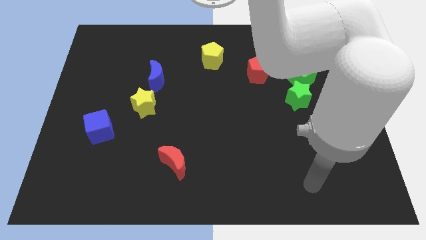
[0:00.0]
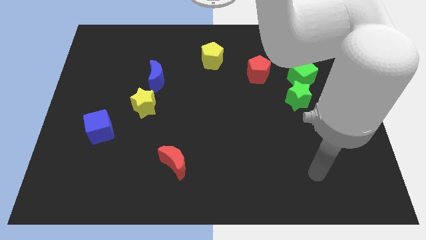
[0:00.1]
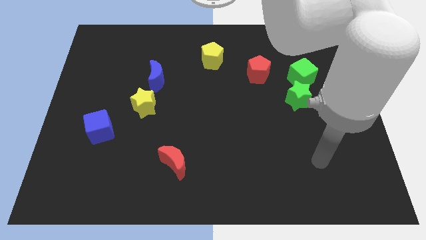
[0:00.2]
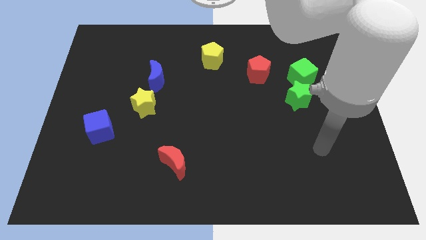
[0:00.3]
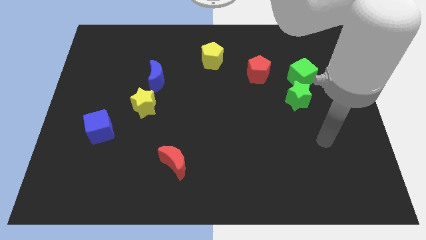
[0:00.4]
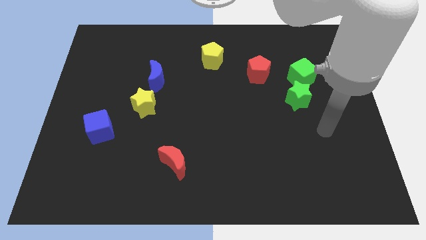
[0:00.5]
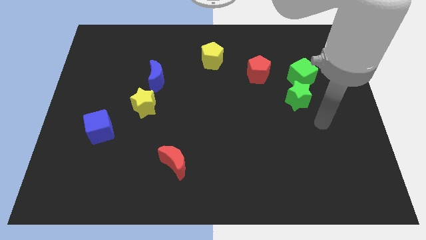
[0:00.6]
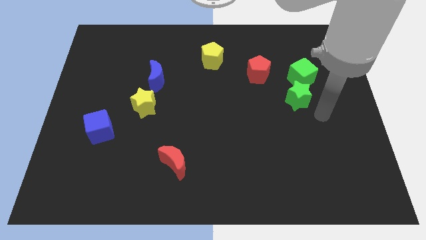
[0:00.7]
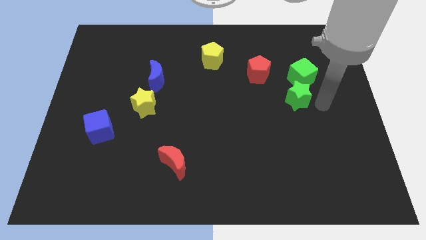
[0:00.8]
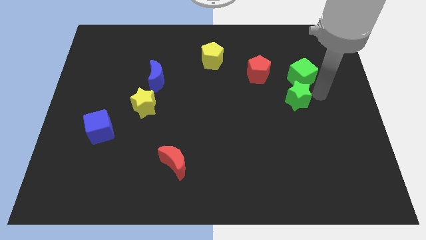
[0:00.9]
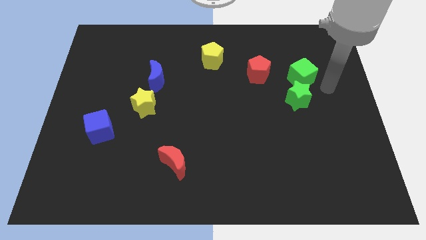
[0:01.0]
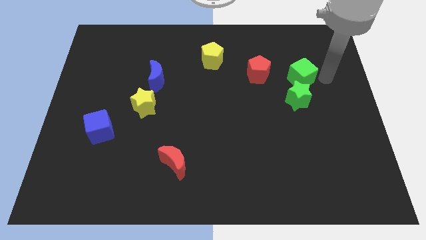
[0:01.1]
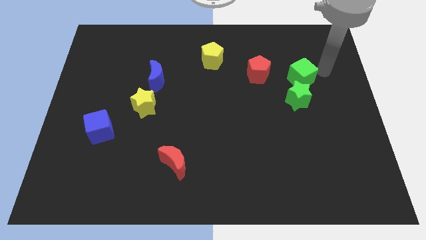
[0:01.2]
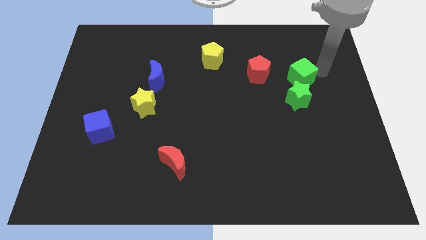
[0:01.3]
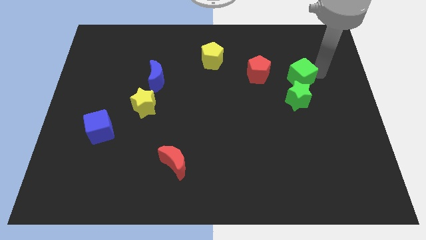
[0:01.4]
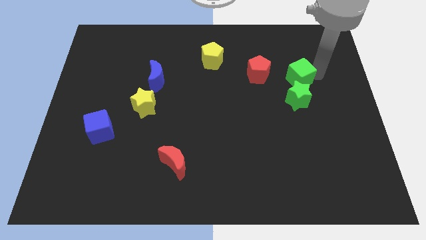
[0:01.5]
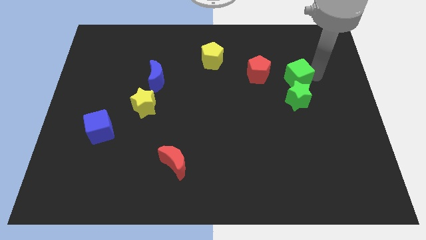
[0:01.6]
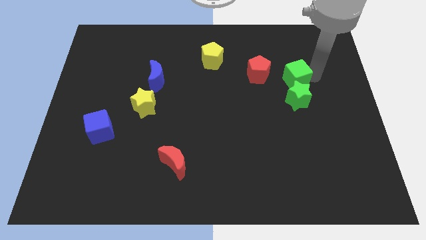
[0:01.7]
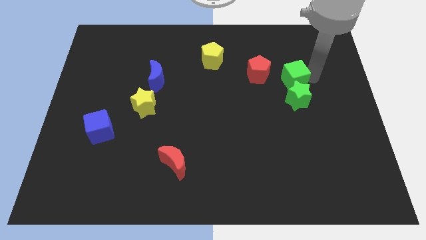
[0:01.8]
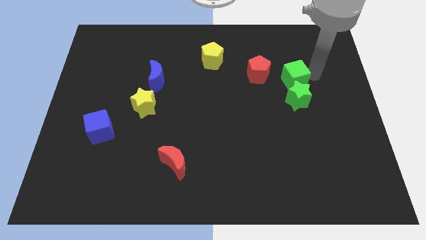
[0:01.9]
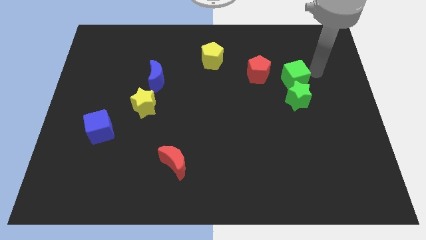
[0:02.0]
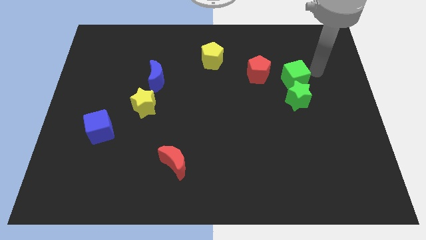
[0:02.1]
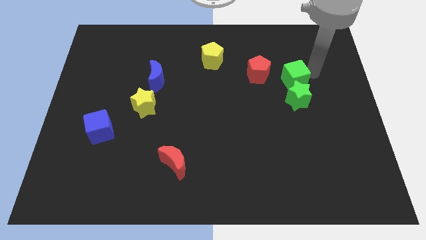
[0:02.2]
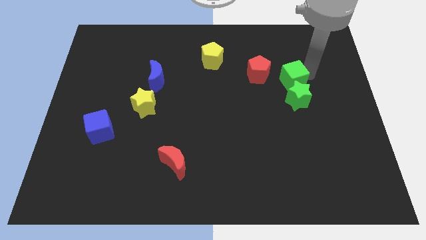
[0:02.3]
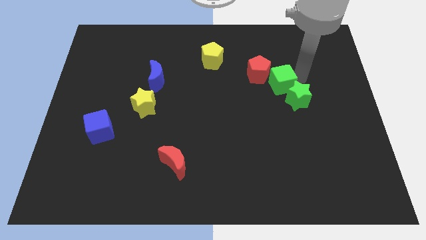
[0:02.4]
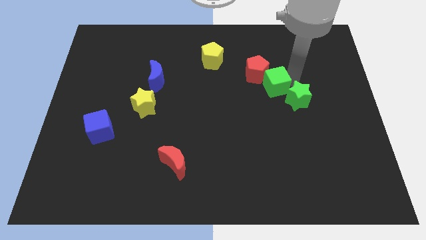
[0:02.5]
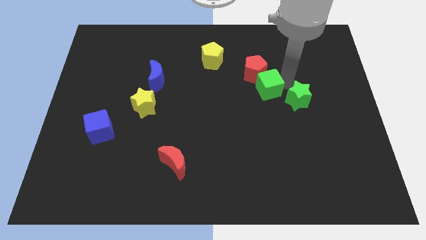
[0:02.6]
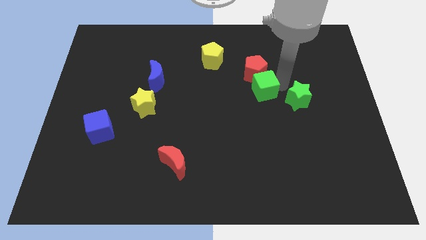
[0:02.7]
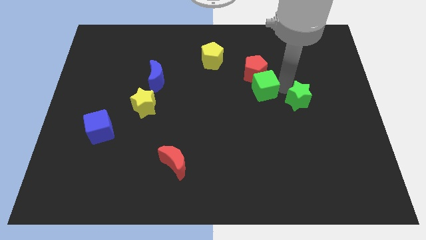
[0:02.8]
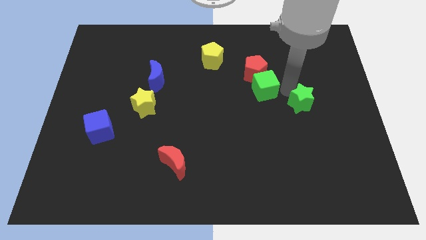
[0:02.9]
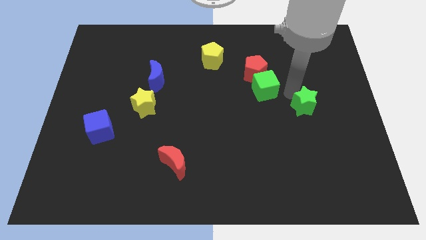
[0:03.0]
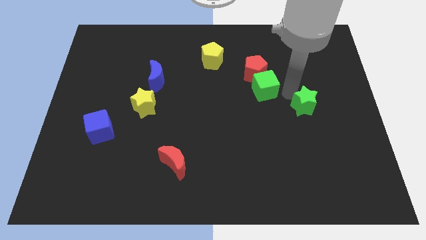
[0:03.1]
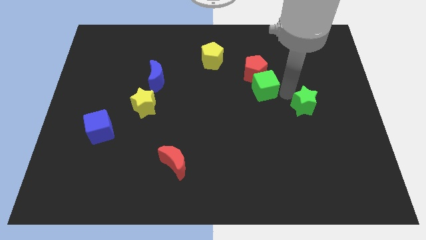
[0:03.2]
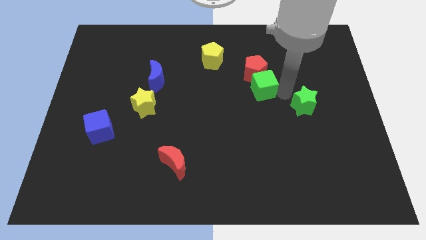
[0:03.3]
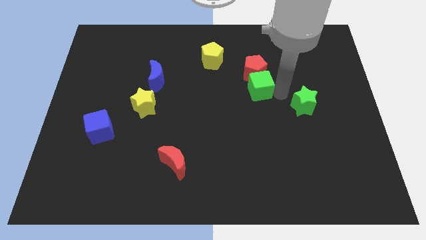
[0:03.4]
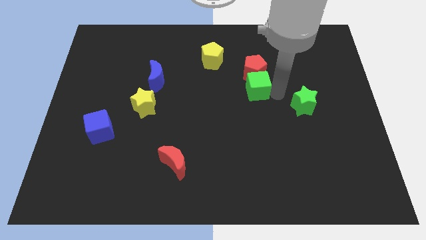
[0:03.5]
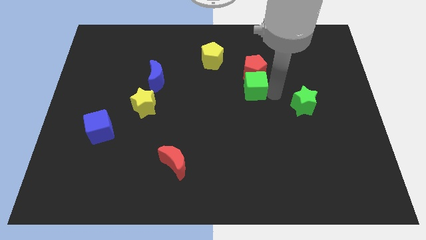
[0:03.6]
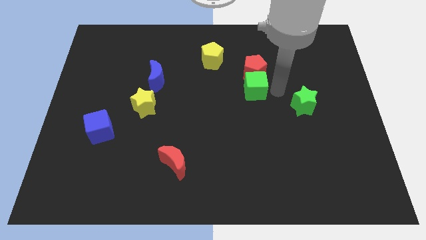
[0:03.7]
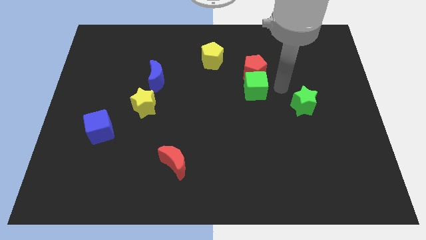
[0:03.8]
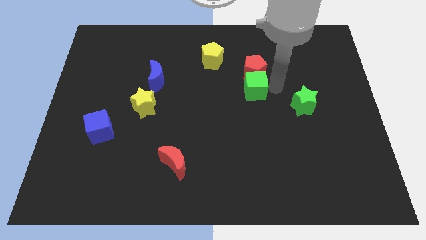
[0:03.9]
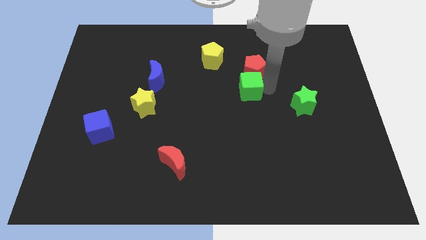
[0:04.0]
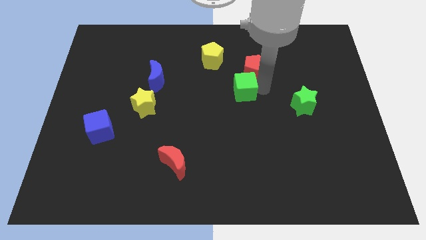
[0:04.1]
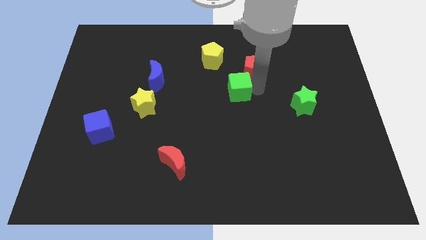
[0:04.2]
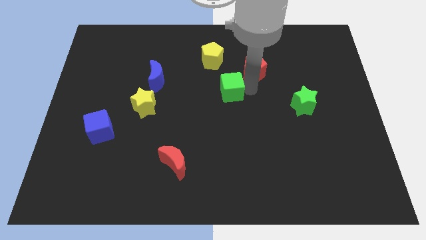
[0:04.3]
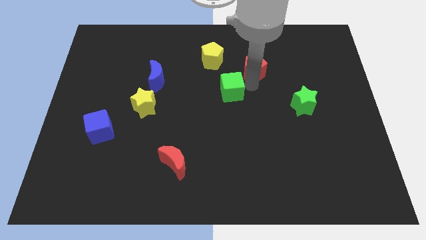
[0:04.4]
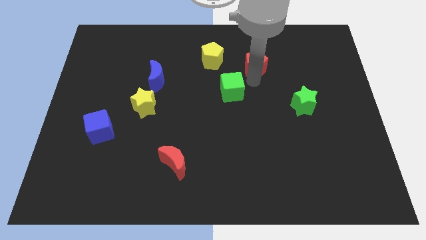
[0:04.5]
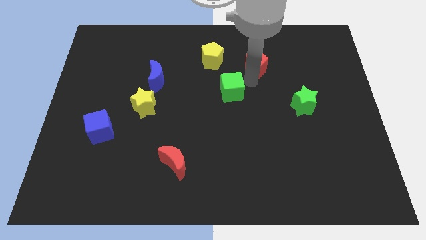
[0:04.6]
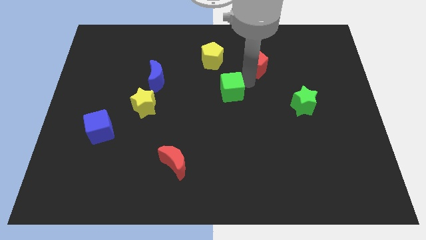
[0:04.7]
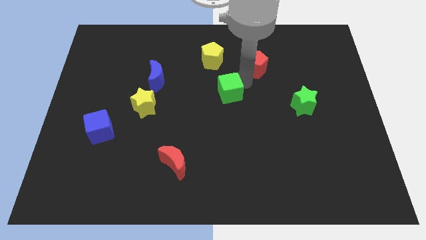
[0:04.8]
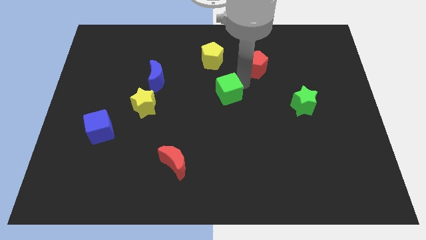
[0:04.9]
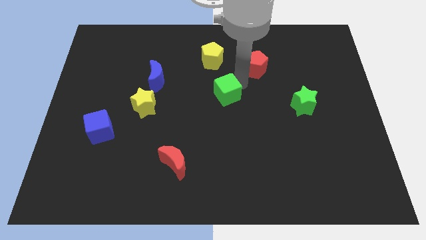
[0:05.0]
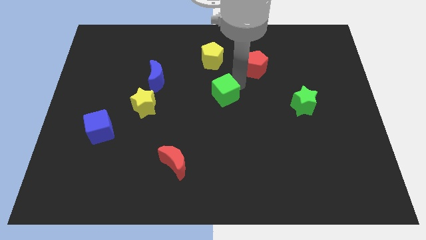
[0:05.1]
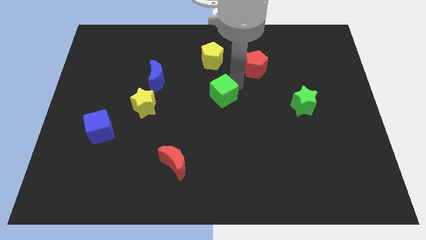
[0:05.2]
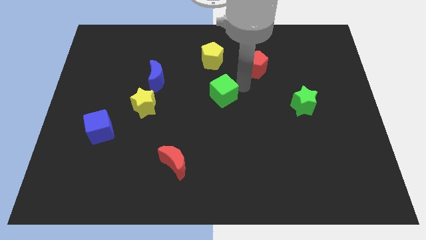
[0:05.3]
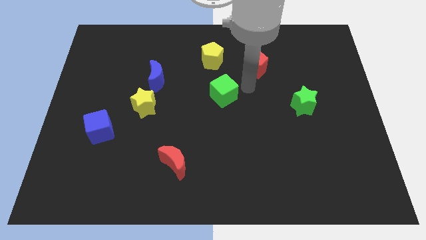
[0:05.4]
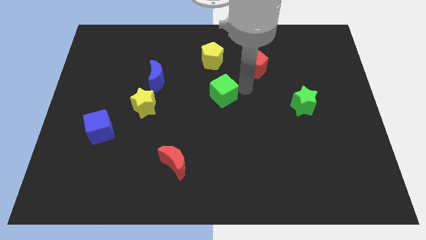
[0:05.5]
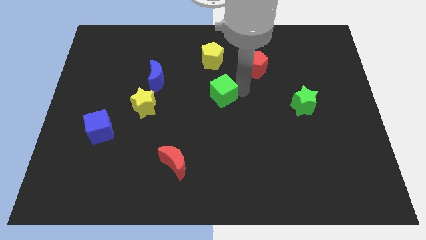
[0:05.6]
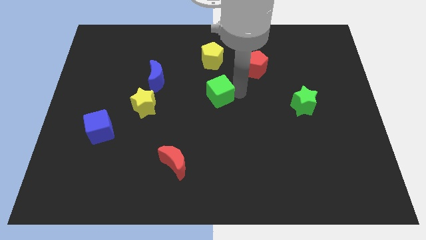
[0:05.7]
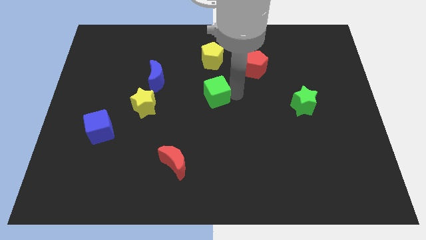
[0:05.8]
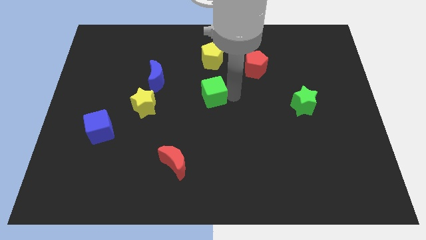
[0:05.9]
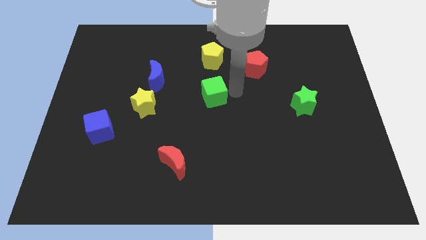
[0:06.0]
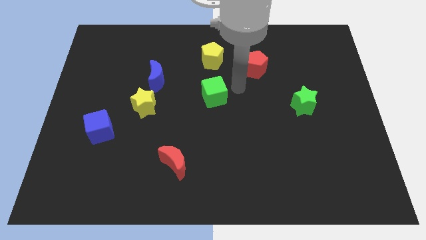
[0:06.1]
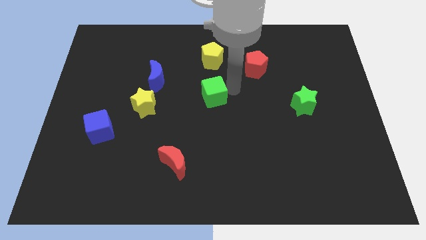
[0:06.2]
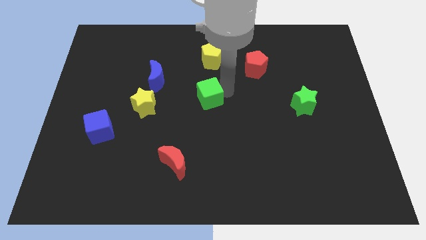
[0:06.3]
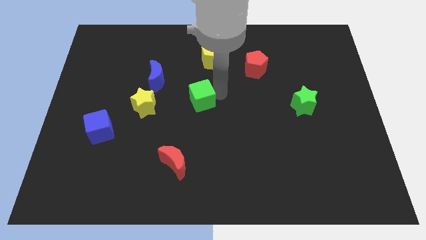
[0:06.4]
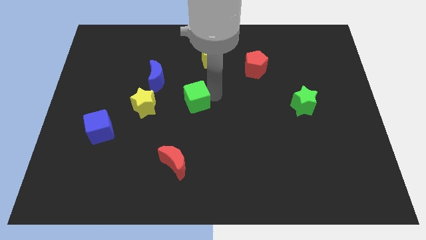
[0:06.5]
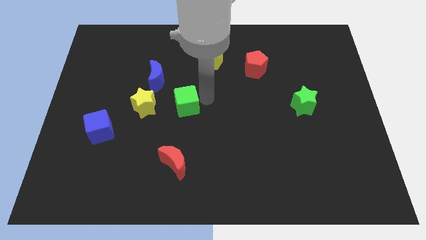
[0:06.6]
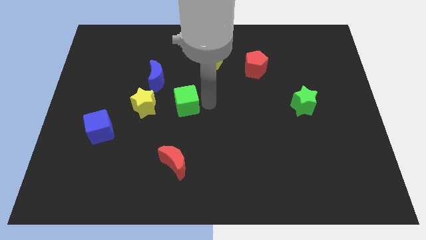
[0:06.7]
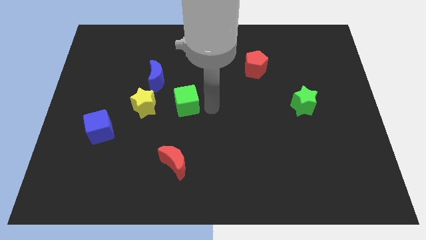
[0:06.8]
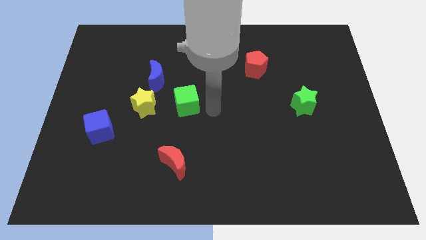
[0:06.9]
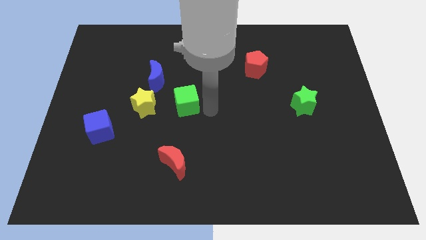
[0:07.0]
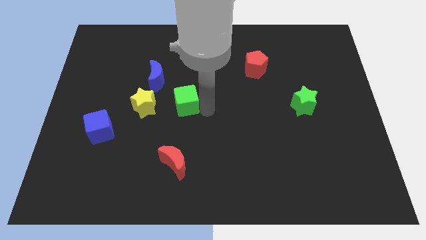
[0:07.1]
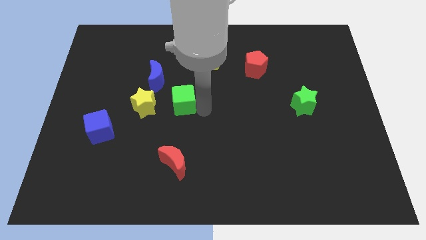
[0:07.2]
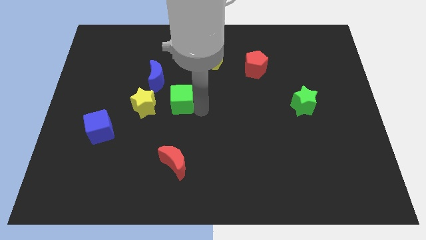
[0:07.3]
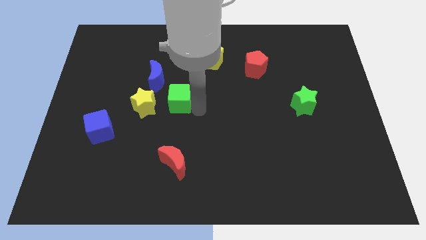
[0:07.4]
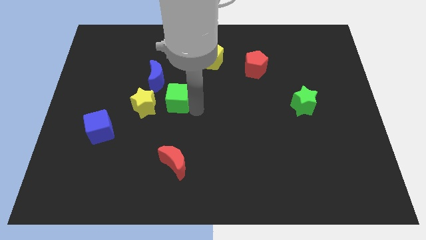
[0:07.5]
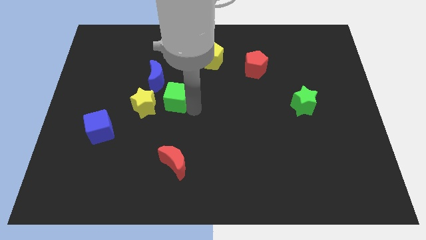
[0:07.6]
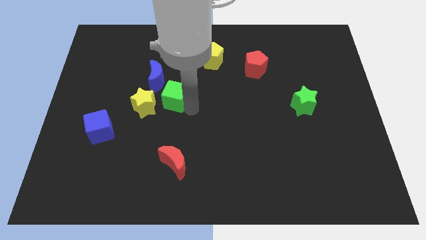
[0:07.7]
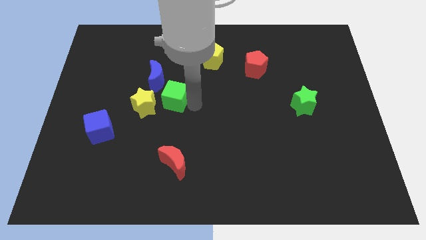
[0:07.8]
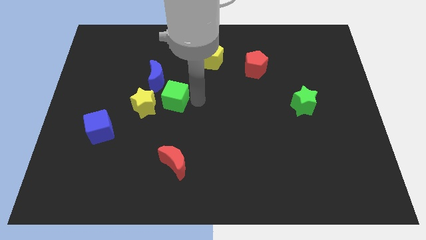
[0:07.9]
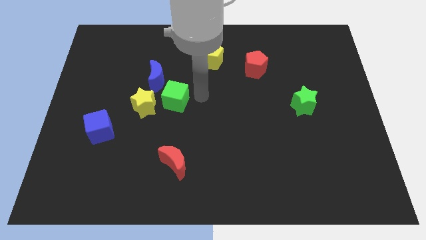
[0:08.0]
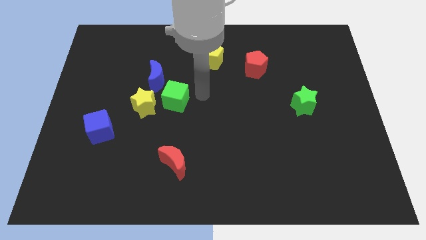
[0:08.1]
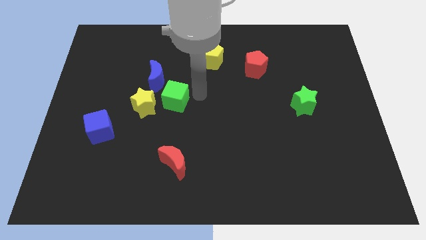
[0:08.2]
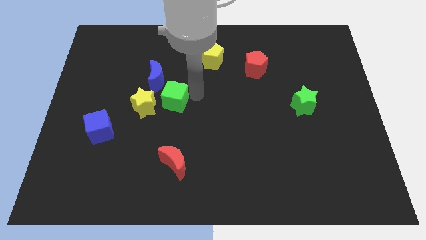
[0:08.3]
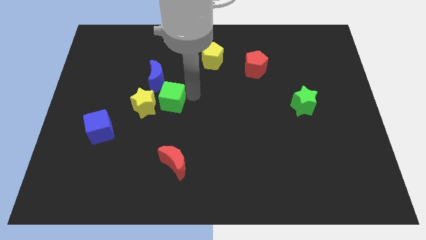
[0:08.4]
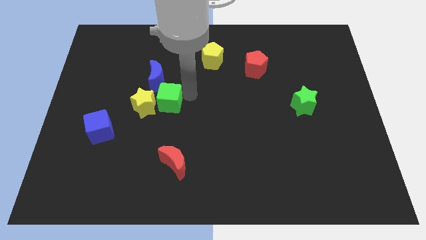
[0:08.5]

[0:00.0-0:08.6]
push the green cube close to the yellow star
